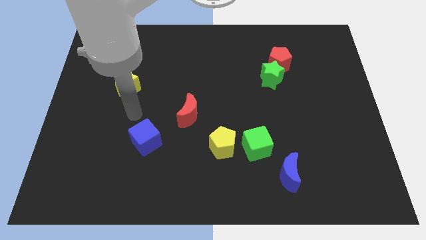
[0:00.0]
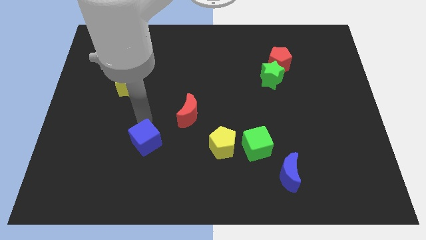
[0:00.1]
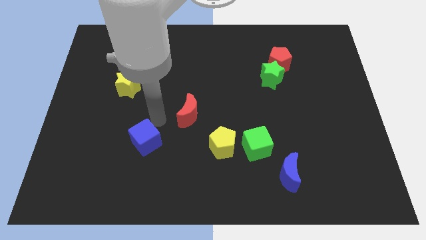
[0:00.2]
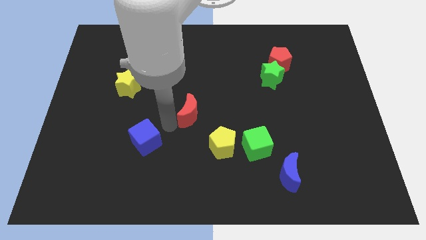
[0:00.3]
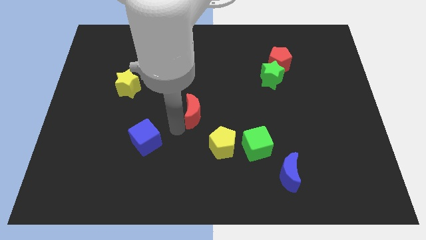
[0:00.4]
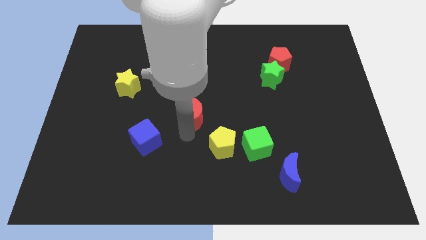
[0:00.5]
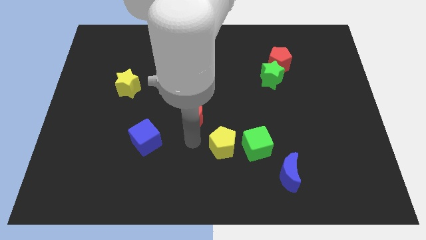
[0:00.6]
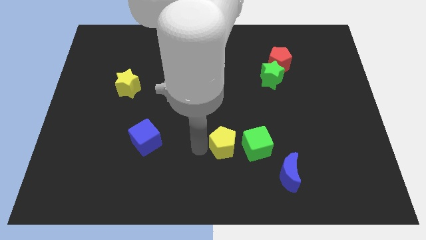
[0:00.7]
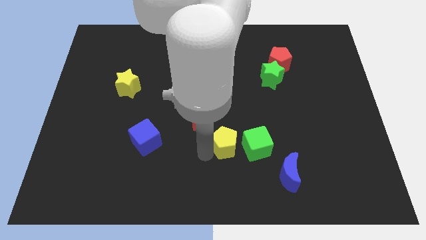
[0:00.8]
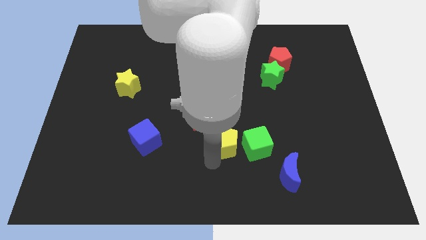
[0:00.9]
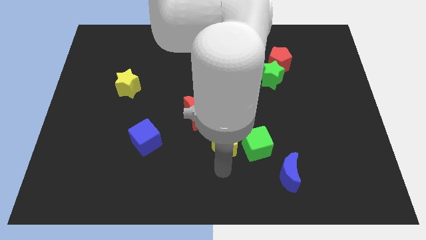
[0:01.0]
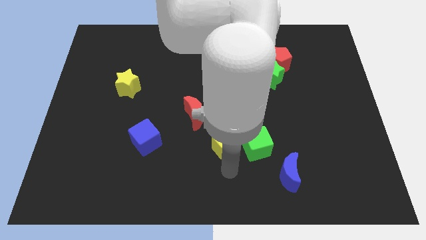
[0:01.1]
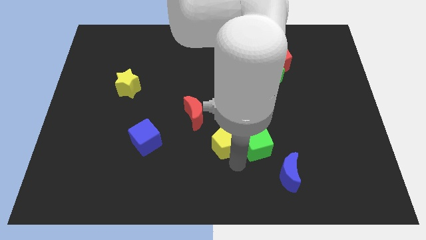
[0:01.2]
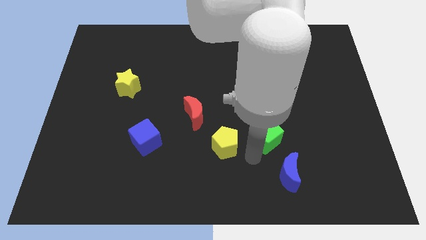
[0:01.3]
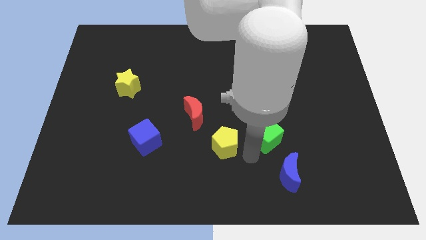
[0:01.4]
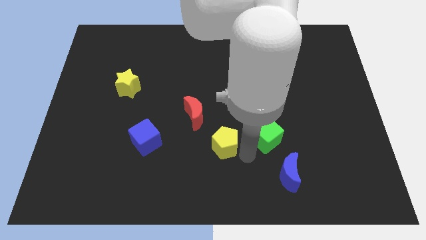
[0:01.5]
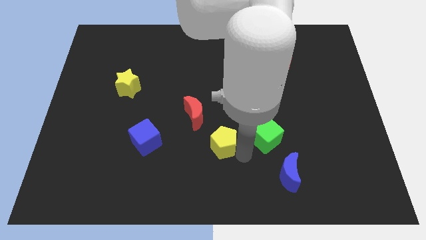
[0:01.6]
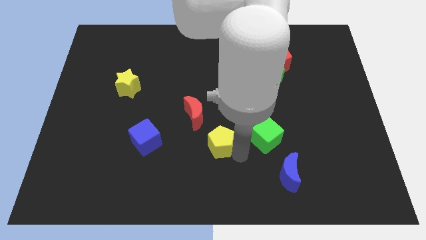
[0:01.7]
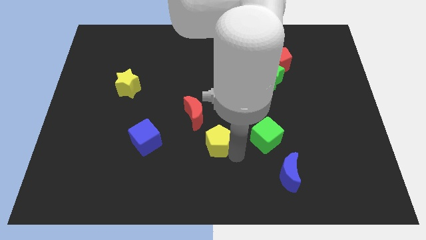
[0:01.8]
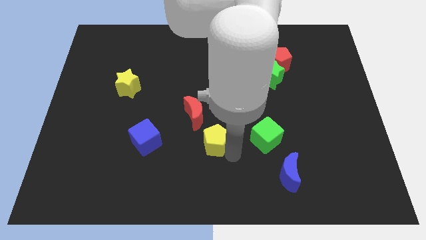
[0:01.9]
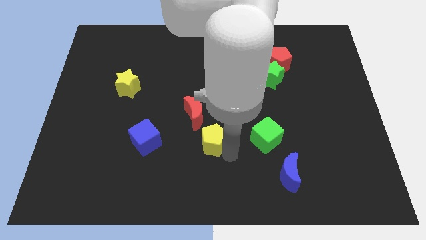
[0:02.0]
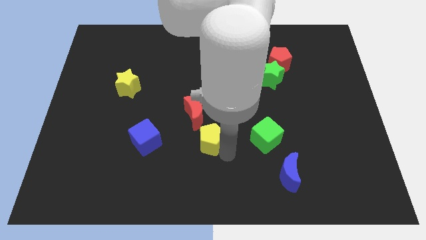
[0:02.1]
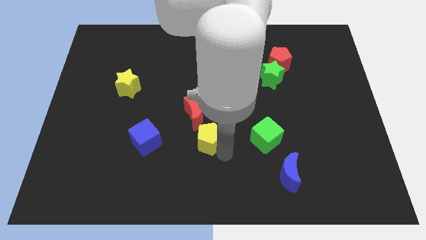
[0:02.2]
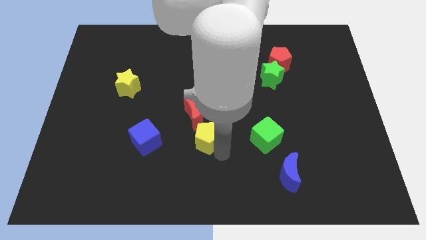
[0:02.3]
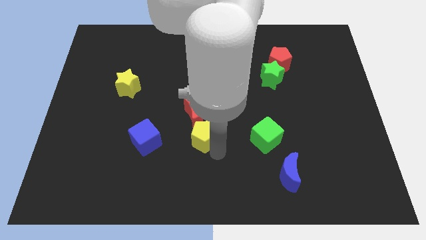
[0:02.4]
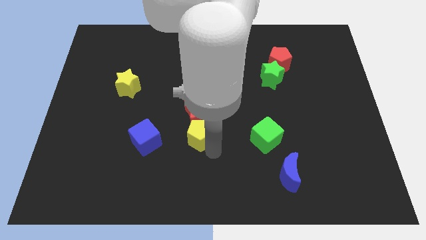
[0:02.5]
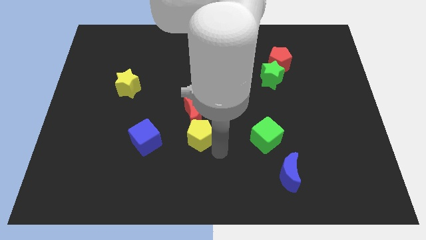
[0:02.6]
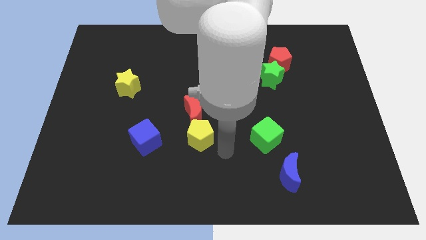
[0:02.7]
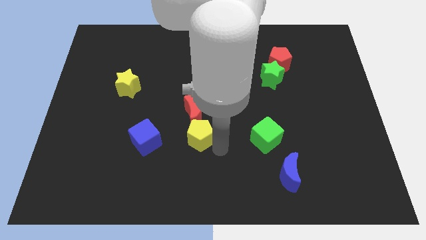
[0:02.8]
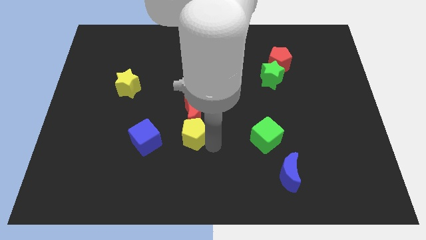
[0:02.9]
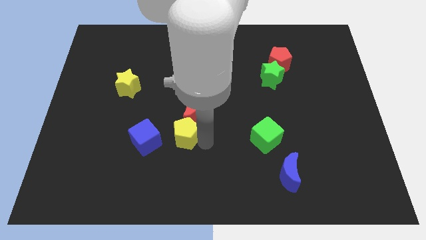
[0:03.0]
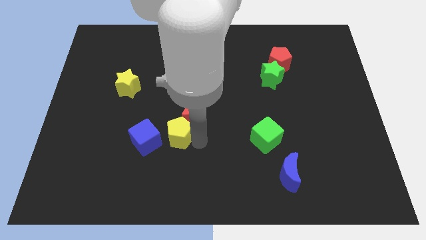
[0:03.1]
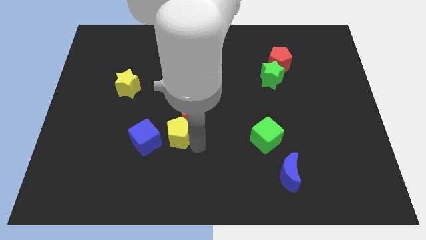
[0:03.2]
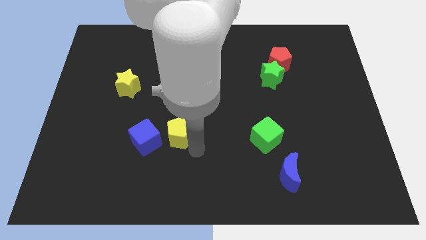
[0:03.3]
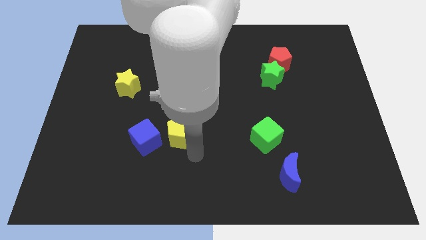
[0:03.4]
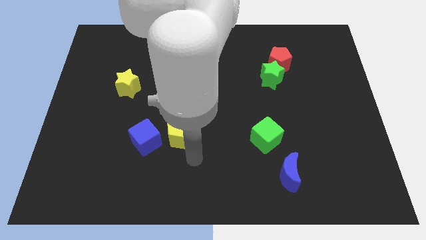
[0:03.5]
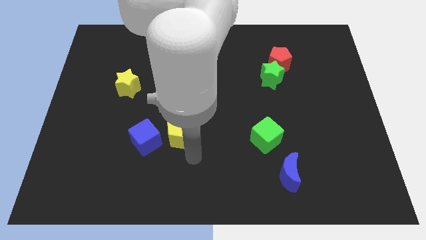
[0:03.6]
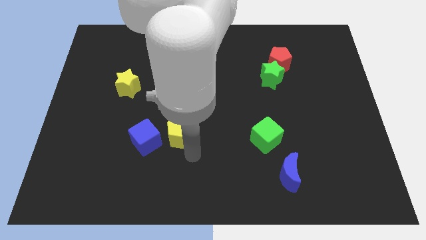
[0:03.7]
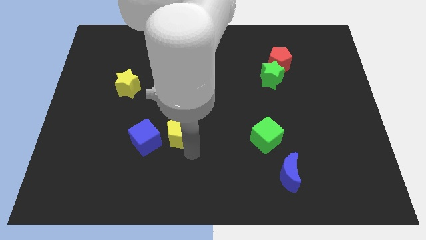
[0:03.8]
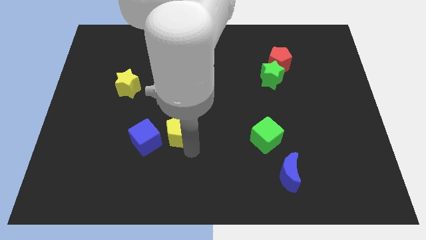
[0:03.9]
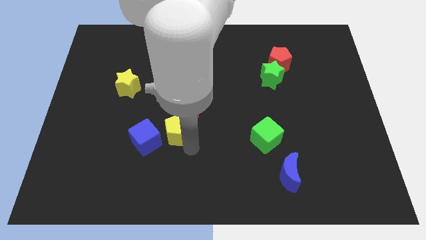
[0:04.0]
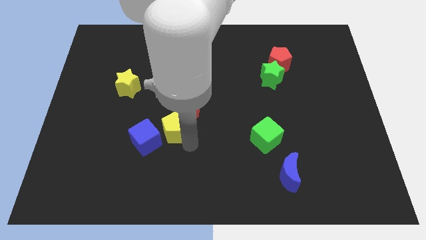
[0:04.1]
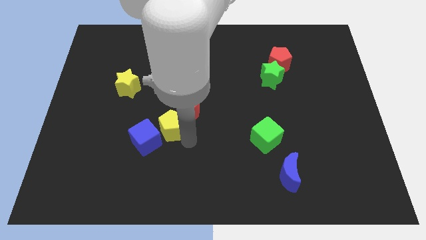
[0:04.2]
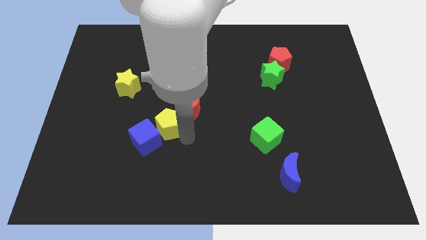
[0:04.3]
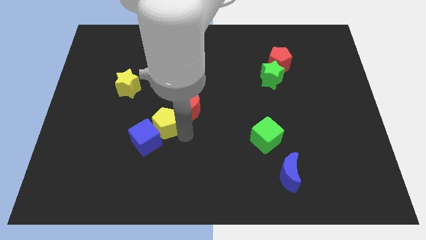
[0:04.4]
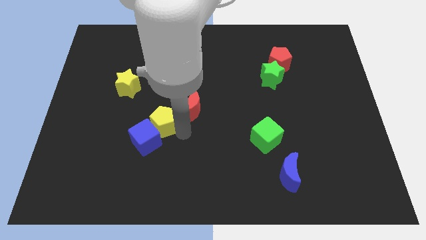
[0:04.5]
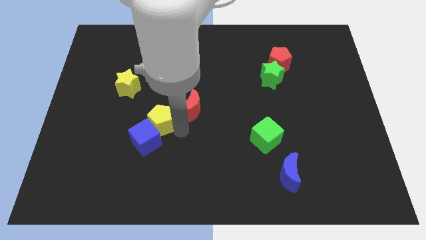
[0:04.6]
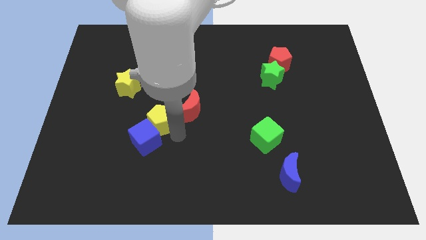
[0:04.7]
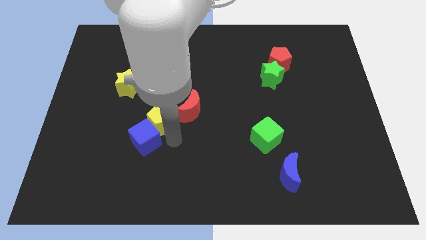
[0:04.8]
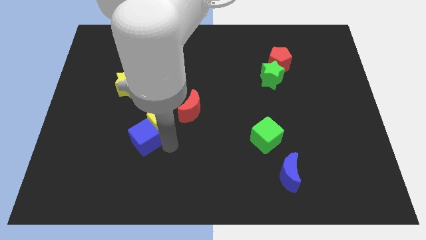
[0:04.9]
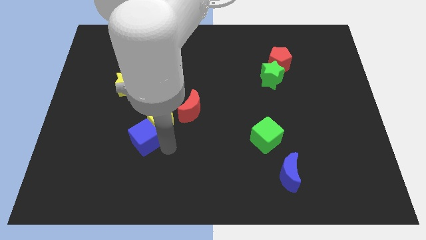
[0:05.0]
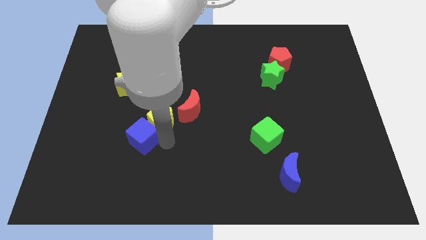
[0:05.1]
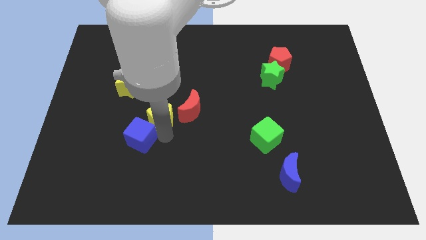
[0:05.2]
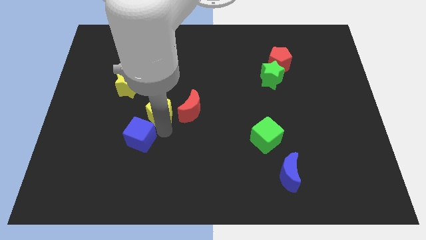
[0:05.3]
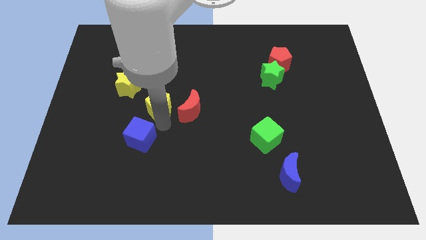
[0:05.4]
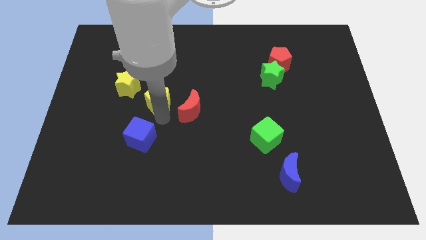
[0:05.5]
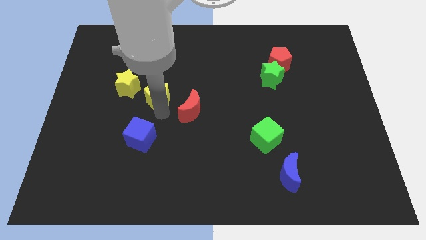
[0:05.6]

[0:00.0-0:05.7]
move the yellow pentagon upwards and to the left

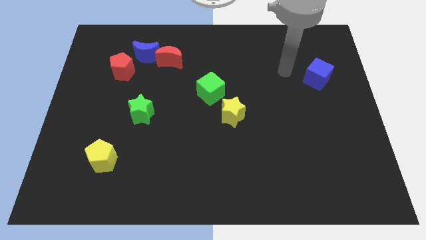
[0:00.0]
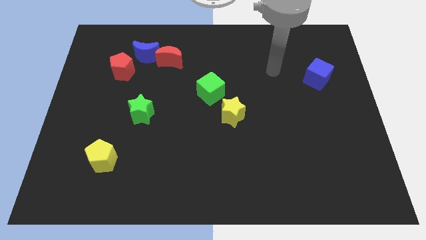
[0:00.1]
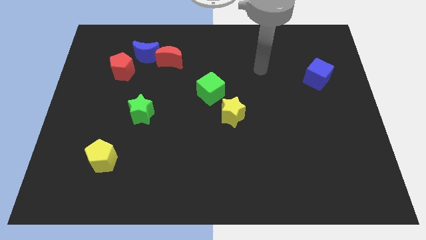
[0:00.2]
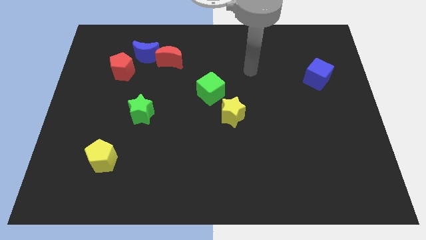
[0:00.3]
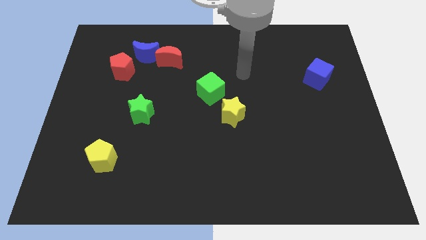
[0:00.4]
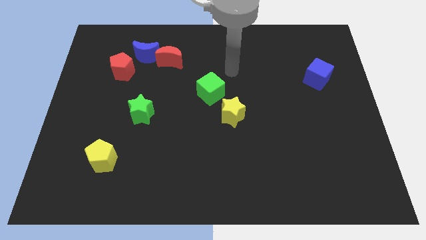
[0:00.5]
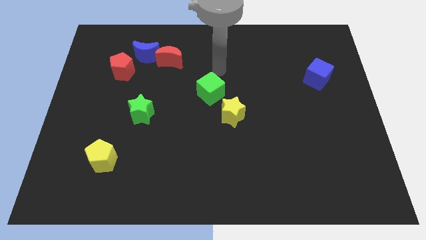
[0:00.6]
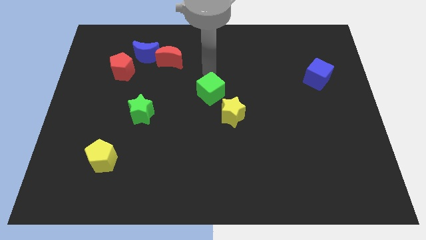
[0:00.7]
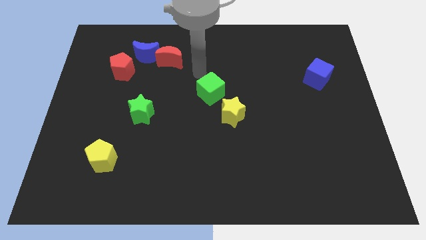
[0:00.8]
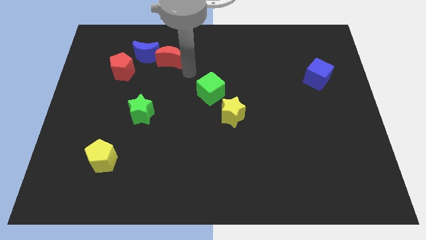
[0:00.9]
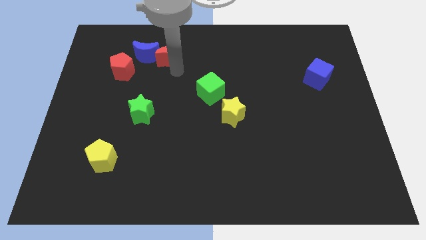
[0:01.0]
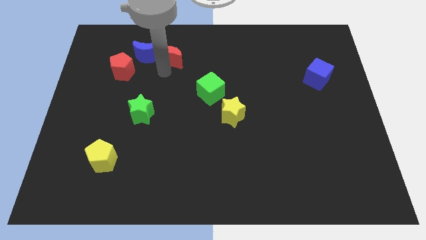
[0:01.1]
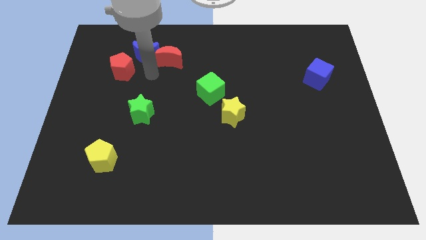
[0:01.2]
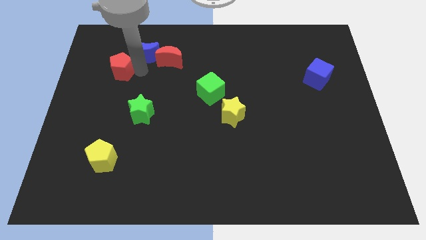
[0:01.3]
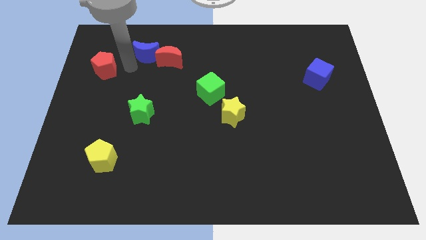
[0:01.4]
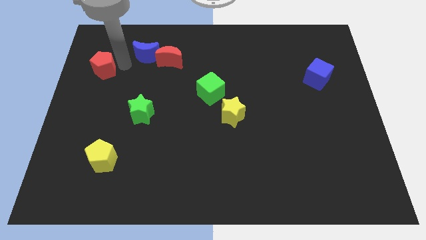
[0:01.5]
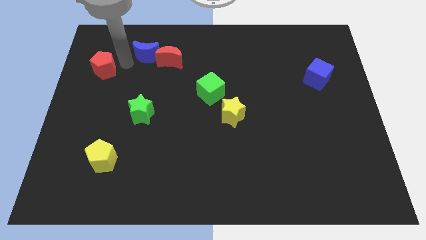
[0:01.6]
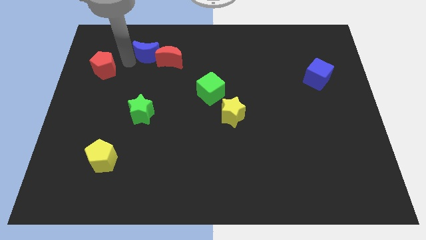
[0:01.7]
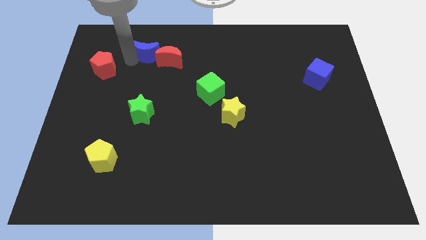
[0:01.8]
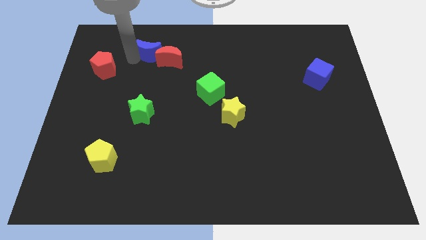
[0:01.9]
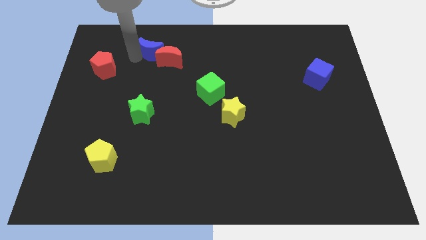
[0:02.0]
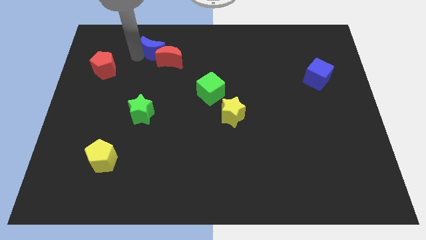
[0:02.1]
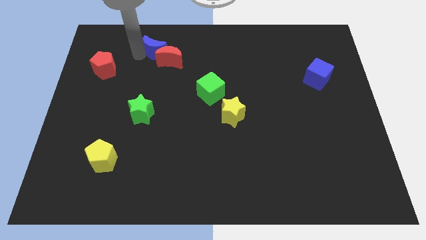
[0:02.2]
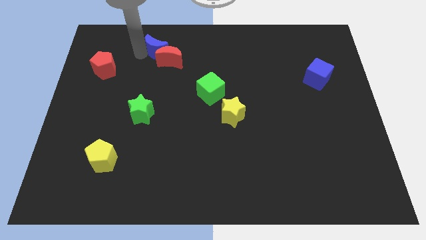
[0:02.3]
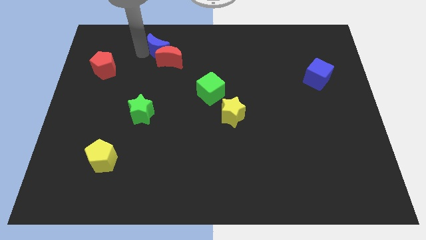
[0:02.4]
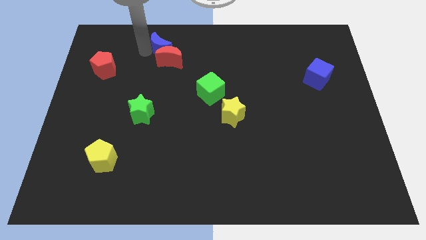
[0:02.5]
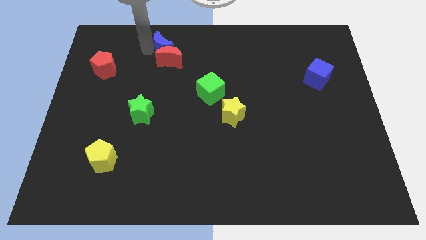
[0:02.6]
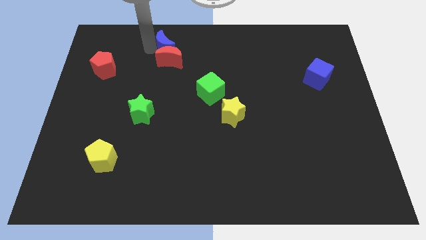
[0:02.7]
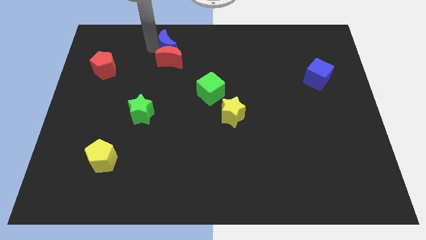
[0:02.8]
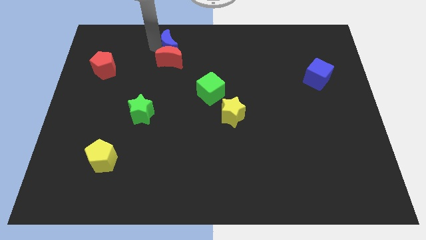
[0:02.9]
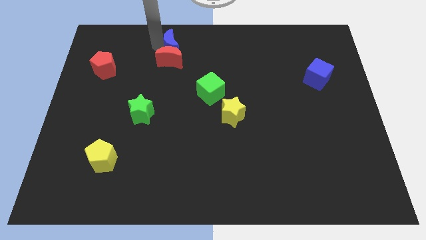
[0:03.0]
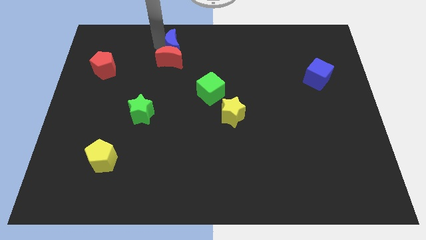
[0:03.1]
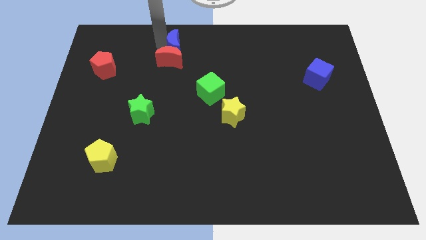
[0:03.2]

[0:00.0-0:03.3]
move the blue moon a bit right
